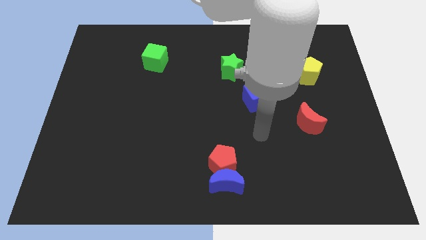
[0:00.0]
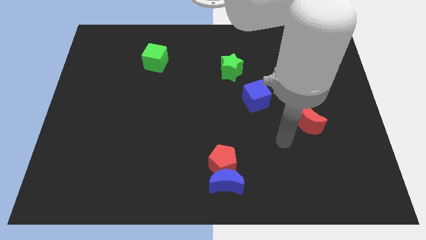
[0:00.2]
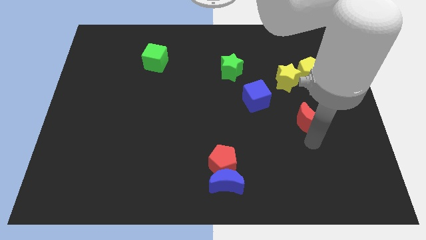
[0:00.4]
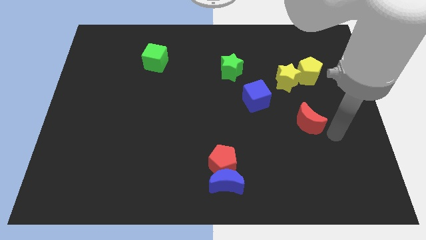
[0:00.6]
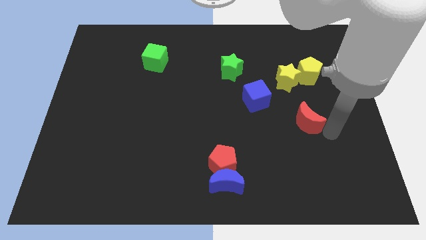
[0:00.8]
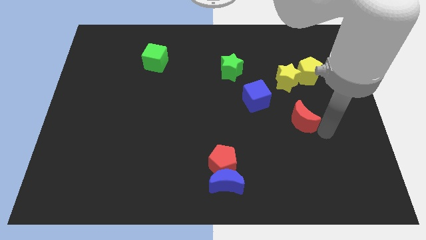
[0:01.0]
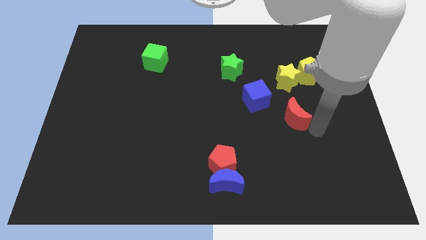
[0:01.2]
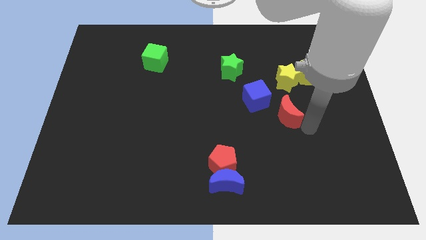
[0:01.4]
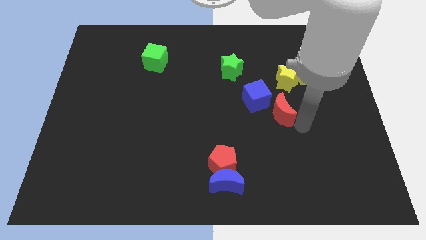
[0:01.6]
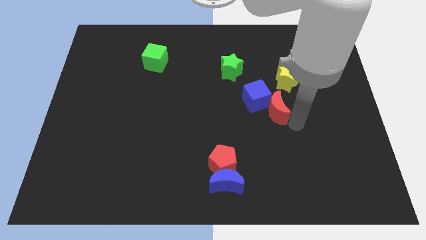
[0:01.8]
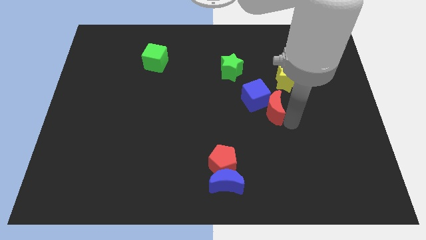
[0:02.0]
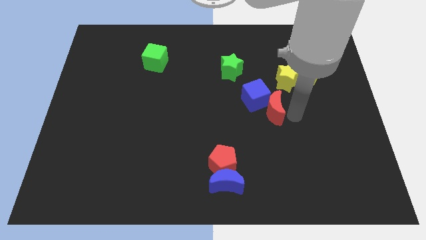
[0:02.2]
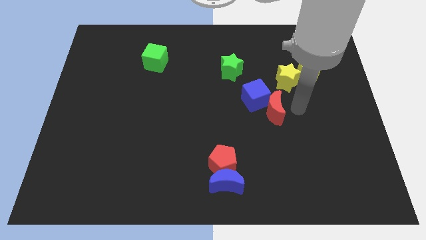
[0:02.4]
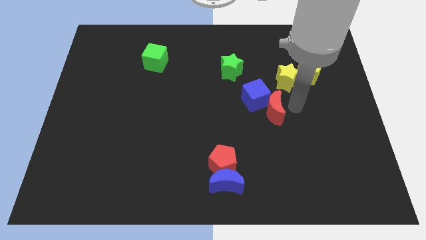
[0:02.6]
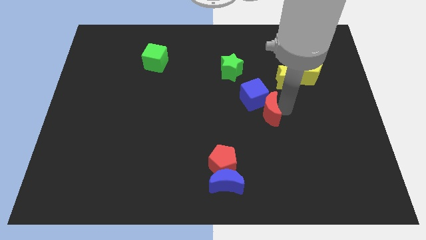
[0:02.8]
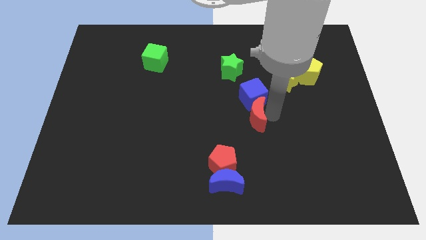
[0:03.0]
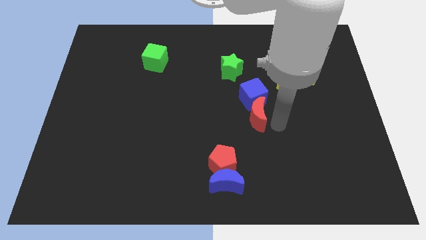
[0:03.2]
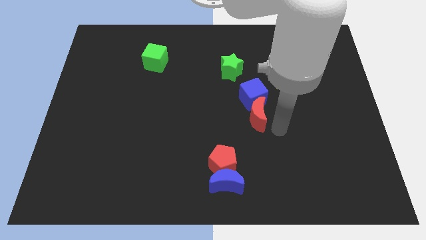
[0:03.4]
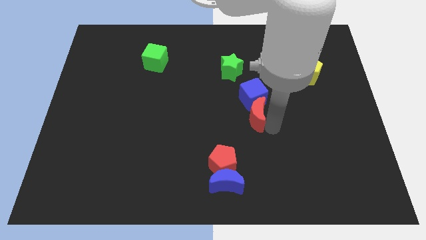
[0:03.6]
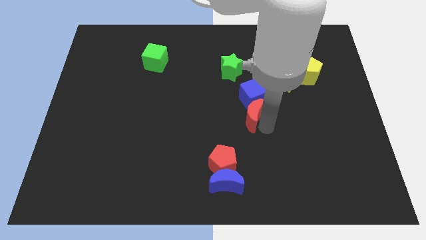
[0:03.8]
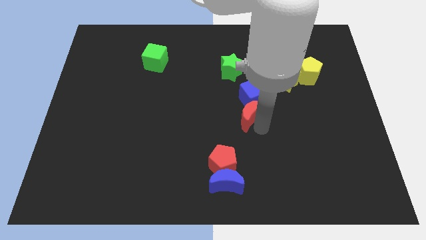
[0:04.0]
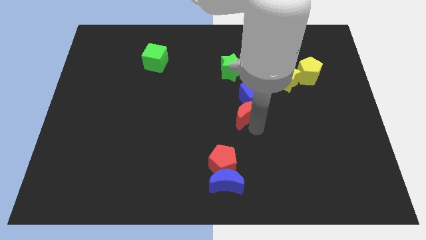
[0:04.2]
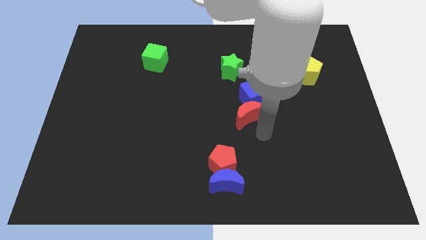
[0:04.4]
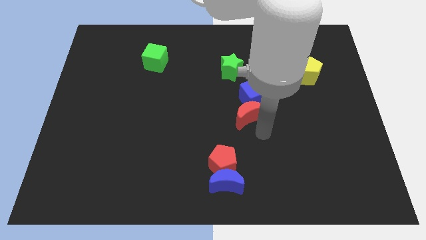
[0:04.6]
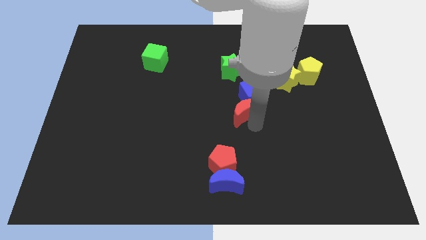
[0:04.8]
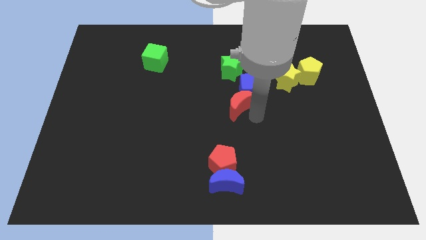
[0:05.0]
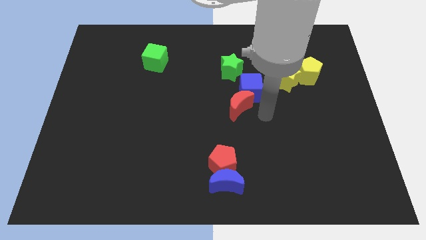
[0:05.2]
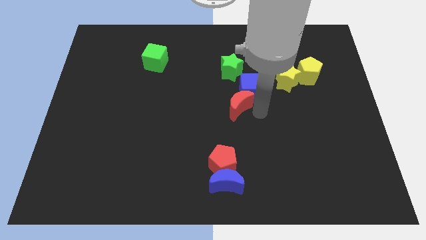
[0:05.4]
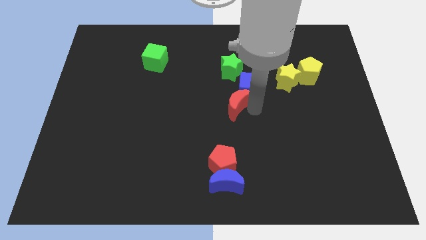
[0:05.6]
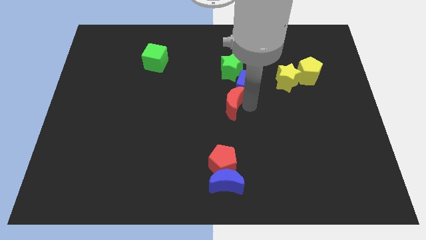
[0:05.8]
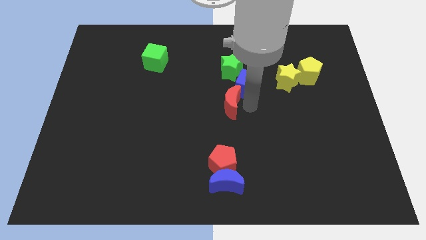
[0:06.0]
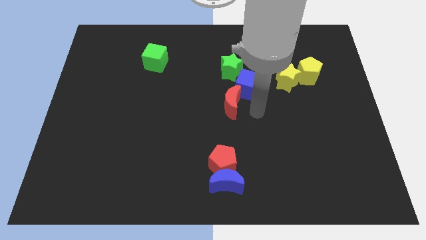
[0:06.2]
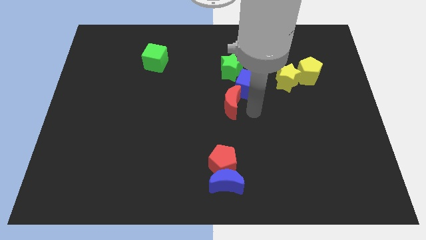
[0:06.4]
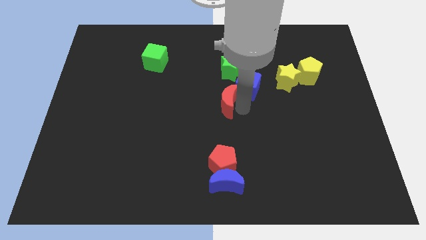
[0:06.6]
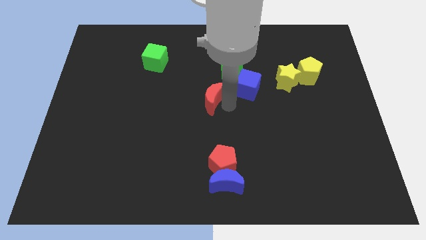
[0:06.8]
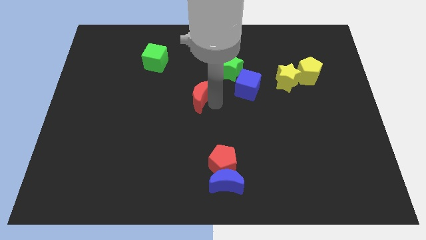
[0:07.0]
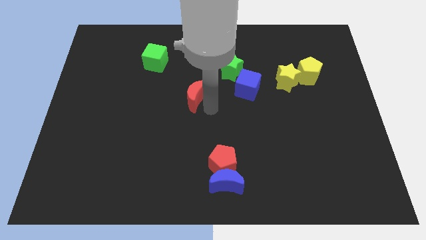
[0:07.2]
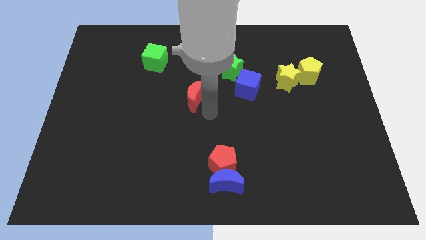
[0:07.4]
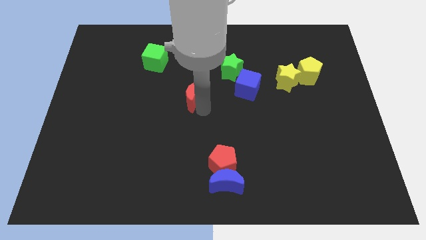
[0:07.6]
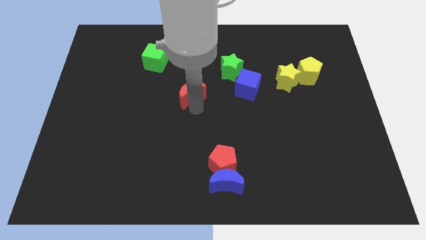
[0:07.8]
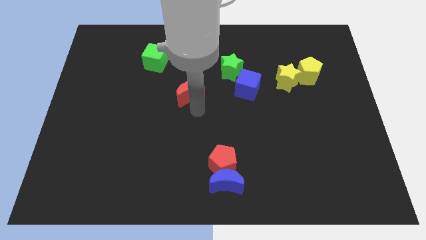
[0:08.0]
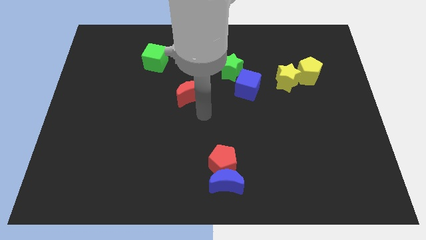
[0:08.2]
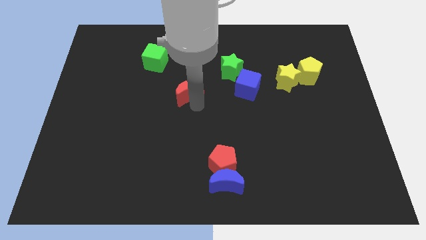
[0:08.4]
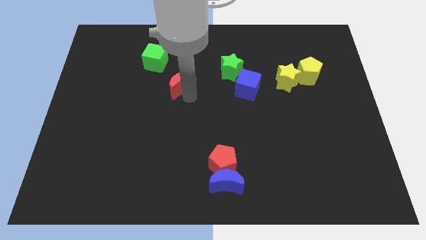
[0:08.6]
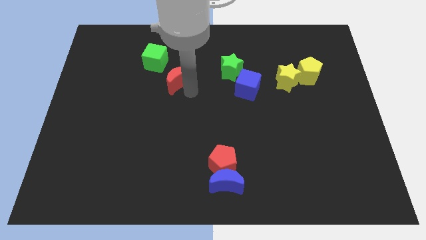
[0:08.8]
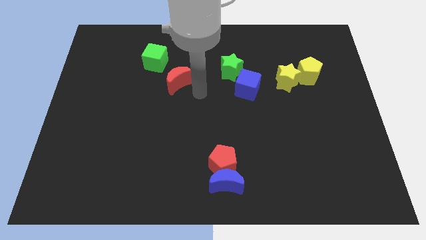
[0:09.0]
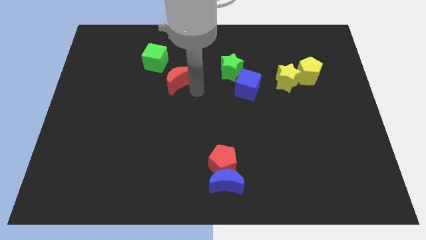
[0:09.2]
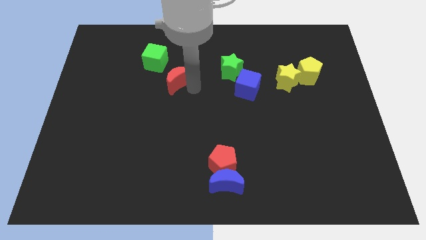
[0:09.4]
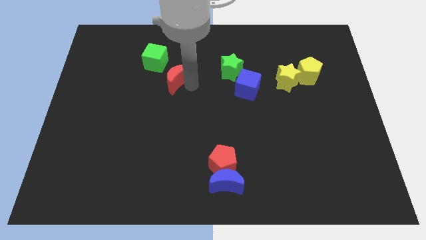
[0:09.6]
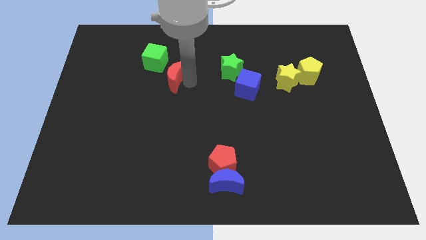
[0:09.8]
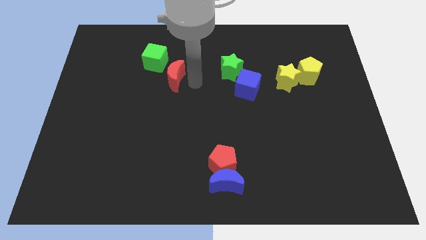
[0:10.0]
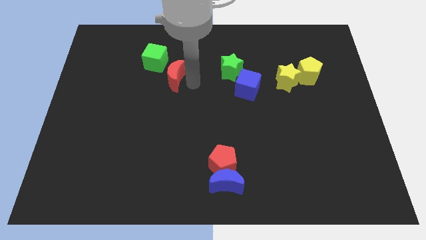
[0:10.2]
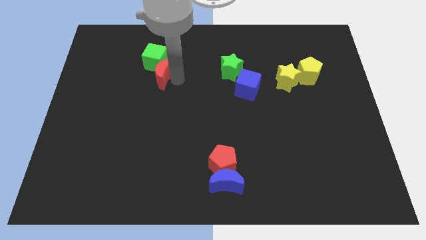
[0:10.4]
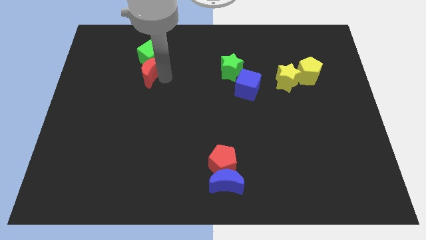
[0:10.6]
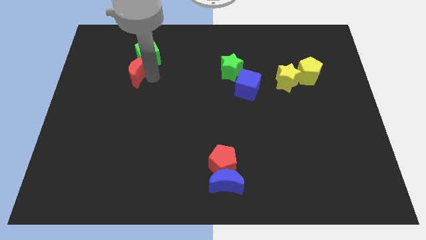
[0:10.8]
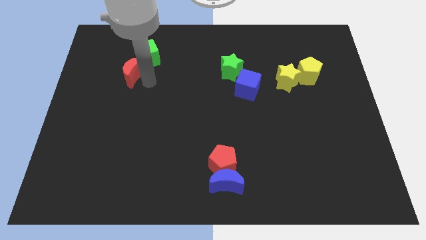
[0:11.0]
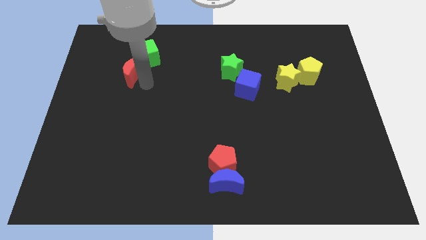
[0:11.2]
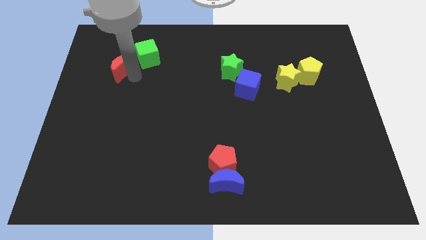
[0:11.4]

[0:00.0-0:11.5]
push the red moon to the left of the green cube

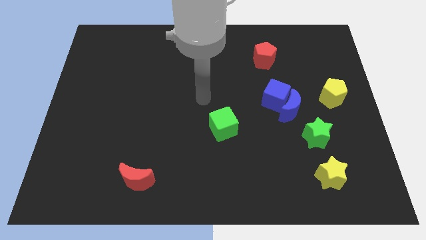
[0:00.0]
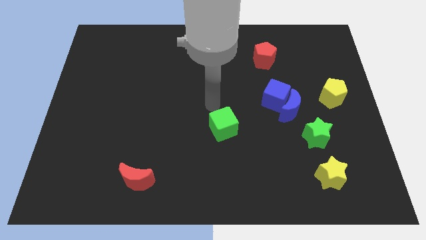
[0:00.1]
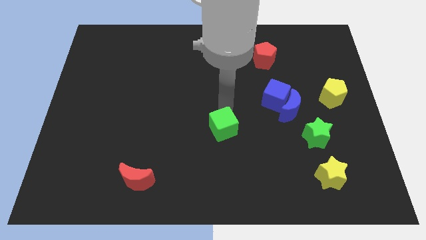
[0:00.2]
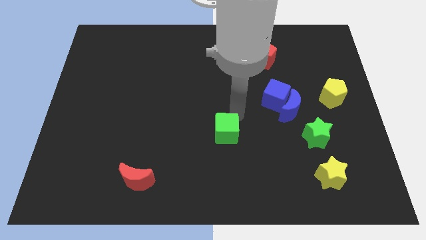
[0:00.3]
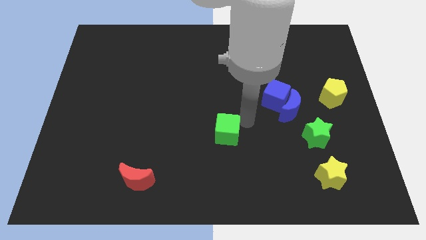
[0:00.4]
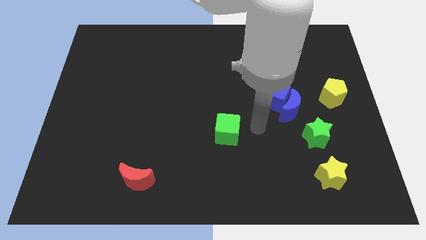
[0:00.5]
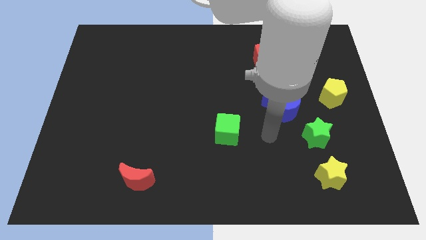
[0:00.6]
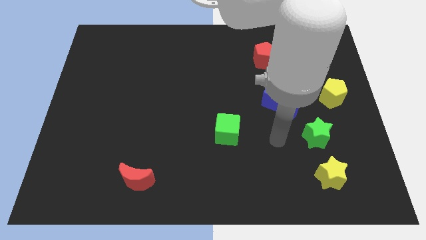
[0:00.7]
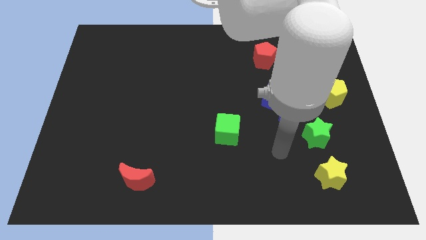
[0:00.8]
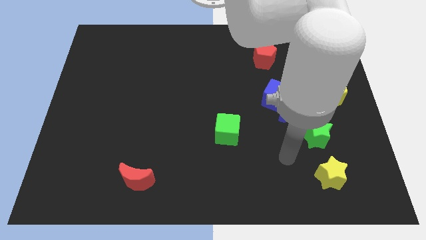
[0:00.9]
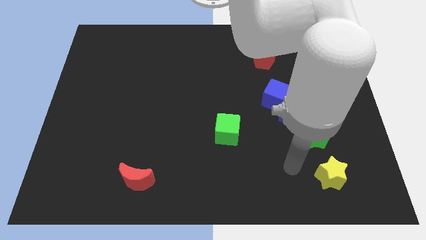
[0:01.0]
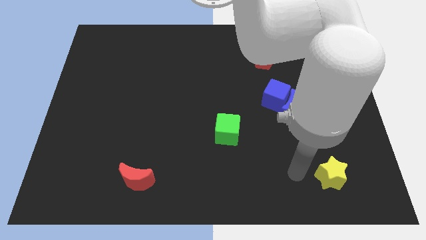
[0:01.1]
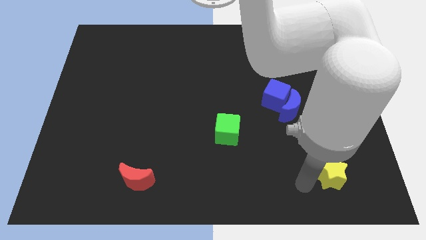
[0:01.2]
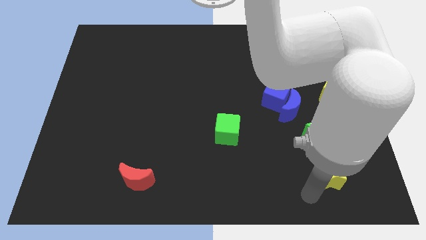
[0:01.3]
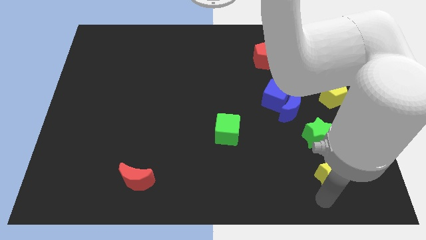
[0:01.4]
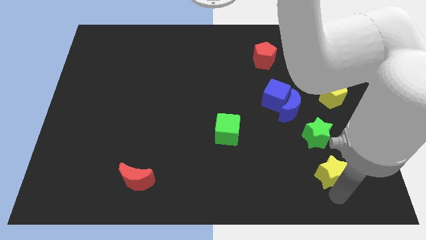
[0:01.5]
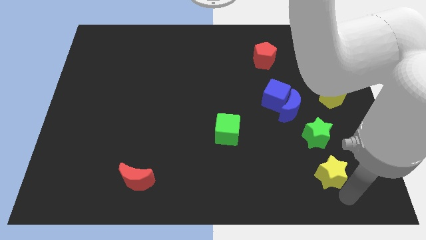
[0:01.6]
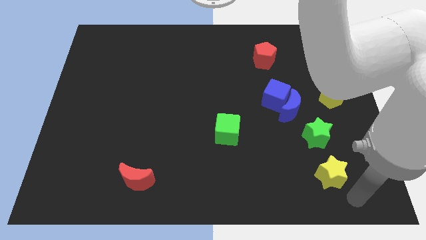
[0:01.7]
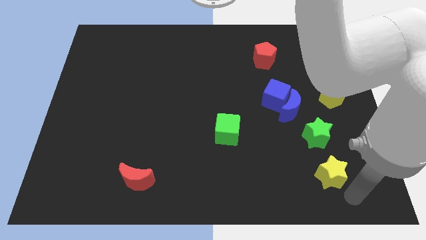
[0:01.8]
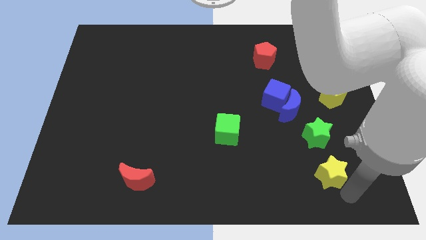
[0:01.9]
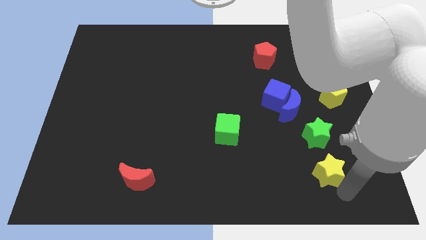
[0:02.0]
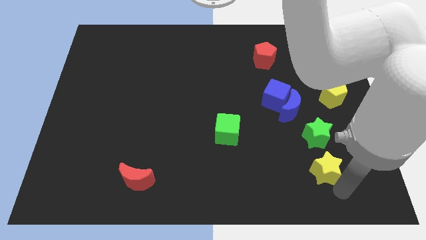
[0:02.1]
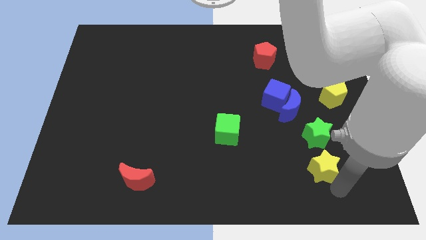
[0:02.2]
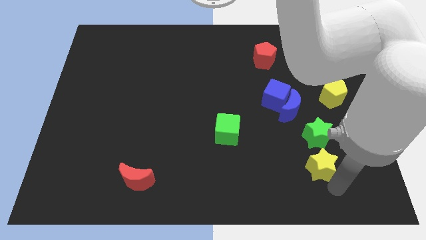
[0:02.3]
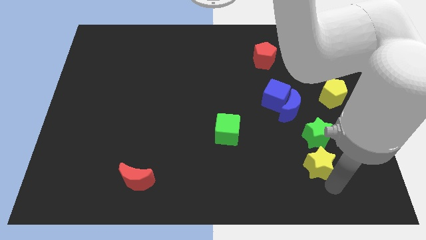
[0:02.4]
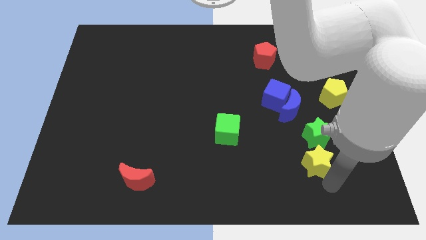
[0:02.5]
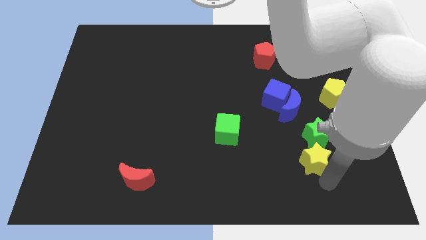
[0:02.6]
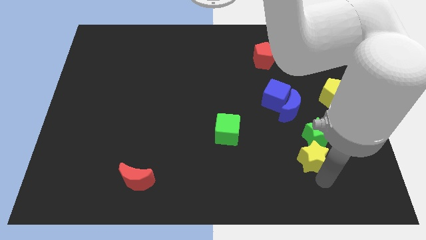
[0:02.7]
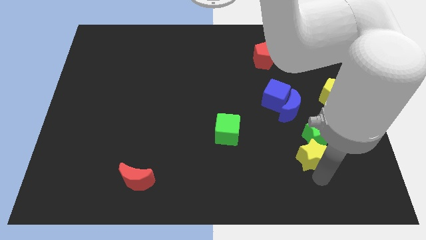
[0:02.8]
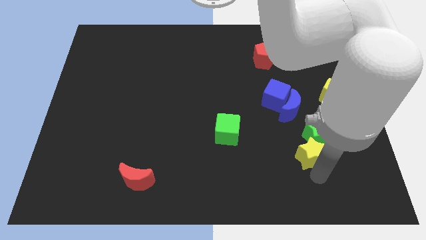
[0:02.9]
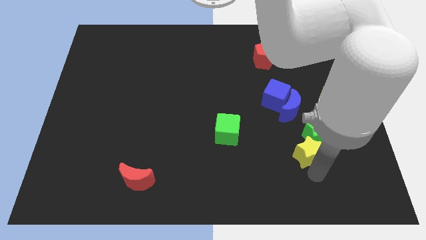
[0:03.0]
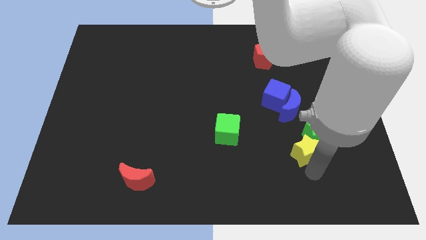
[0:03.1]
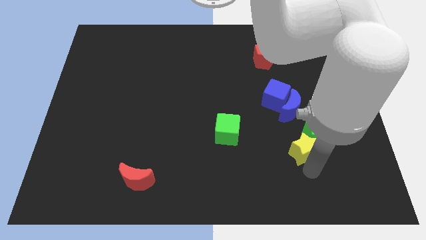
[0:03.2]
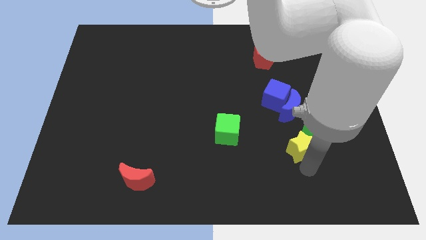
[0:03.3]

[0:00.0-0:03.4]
push the yellow star below the blue cube
